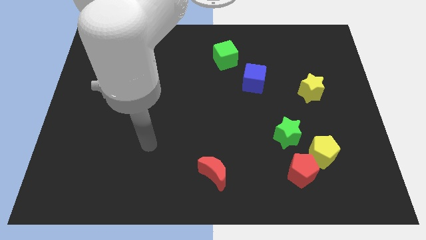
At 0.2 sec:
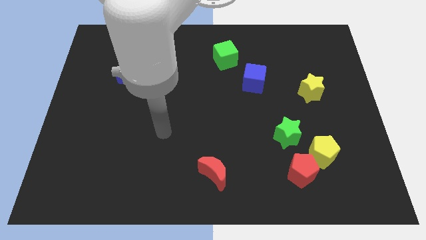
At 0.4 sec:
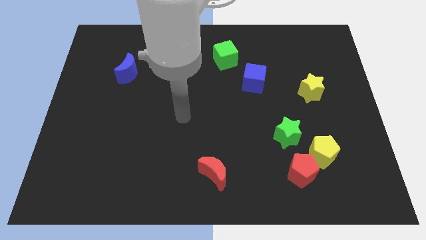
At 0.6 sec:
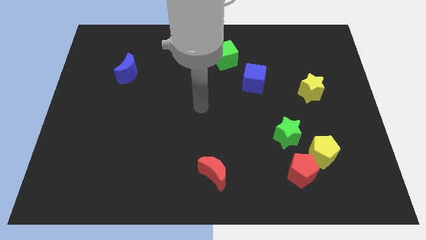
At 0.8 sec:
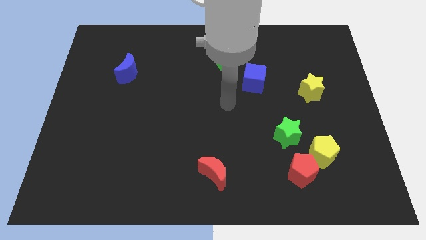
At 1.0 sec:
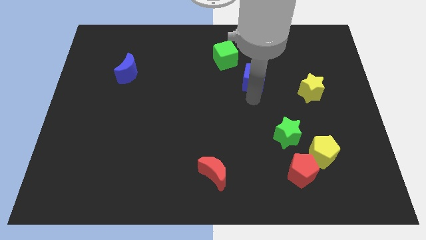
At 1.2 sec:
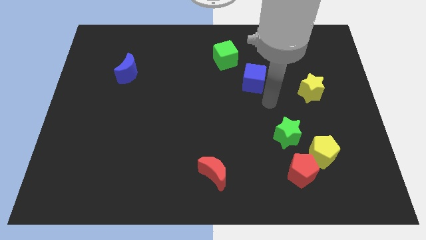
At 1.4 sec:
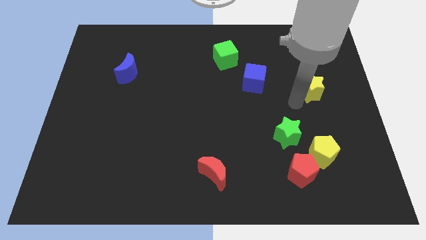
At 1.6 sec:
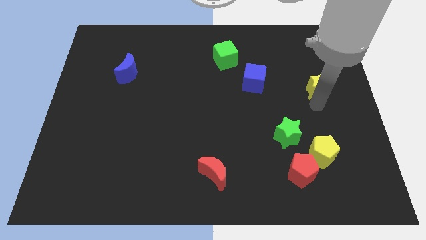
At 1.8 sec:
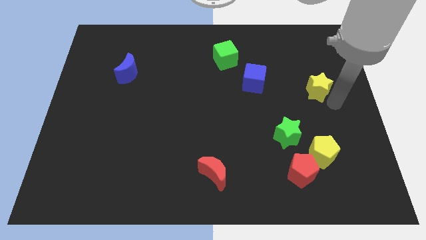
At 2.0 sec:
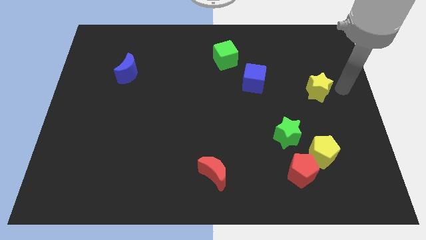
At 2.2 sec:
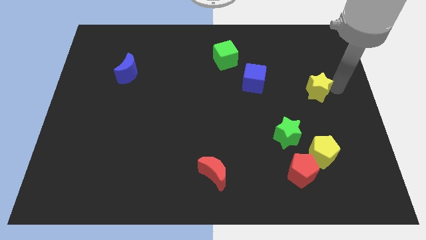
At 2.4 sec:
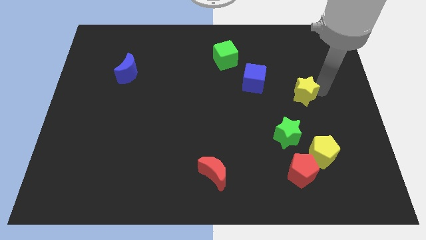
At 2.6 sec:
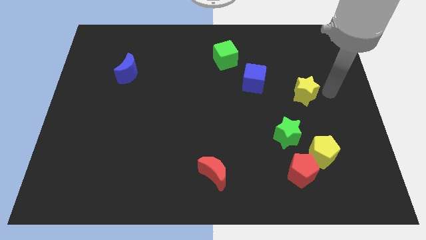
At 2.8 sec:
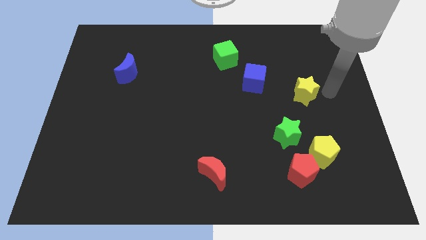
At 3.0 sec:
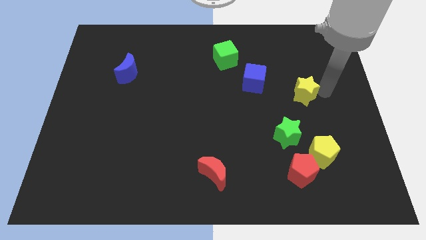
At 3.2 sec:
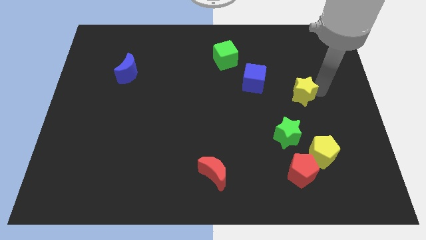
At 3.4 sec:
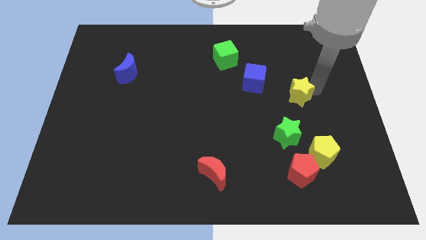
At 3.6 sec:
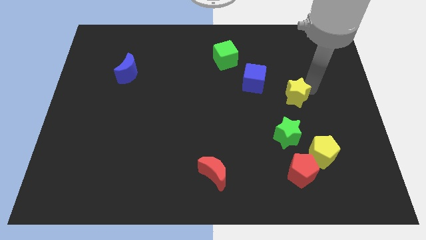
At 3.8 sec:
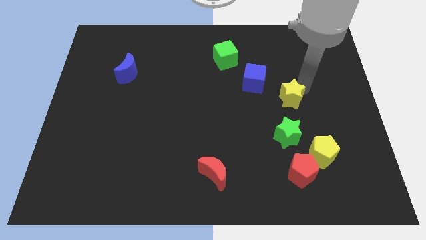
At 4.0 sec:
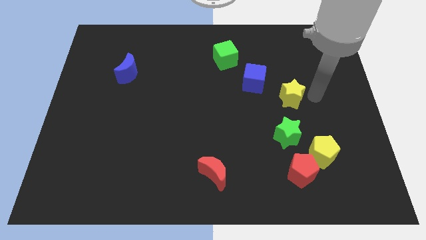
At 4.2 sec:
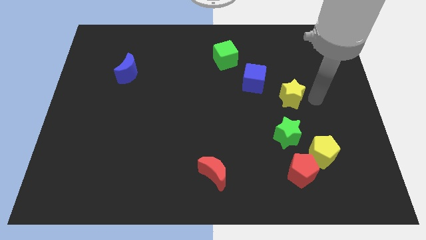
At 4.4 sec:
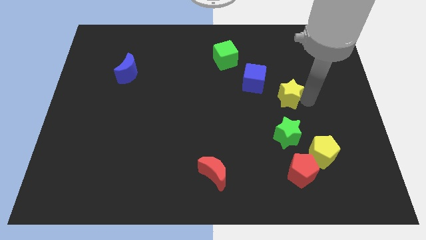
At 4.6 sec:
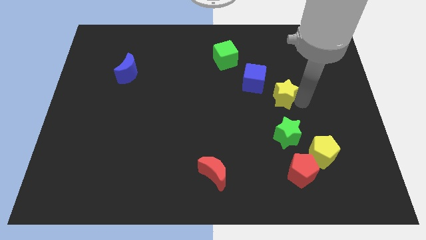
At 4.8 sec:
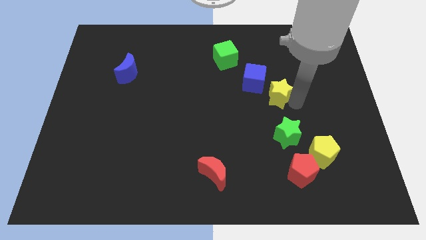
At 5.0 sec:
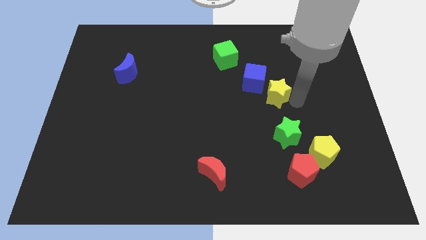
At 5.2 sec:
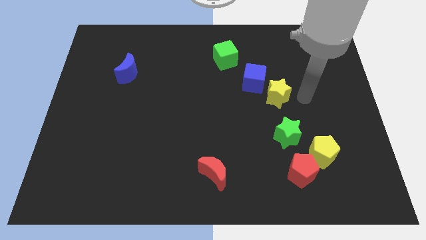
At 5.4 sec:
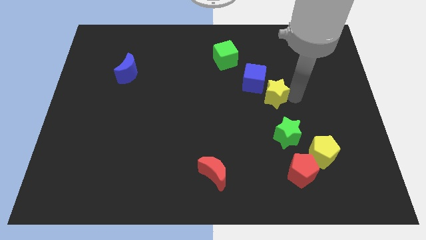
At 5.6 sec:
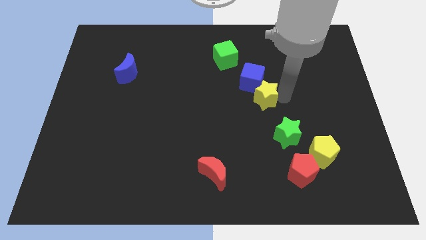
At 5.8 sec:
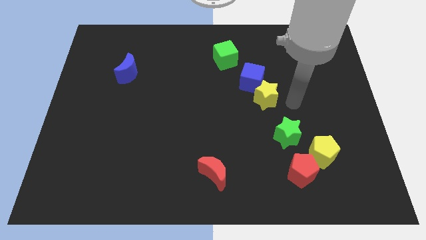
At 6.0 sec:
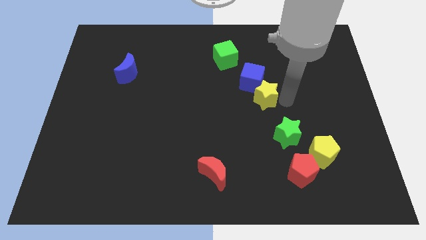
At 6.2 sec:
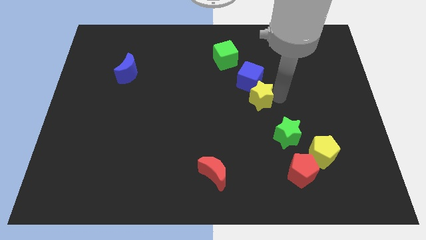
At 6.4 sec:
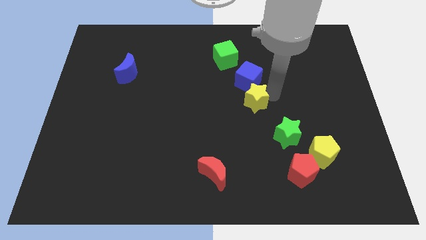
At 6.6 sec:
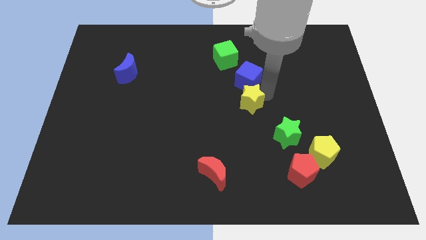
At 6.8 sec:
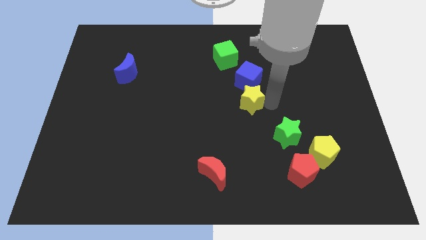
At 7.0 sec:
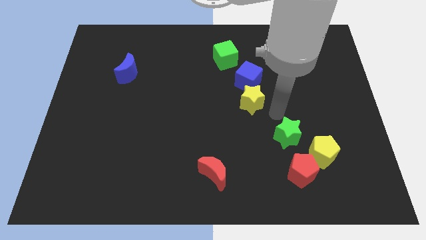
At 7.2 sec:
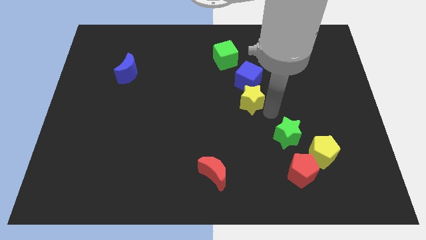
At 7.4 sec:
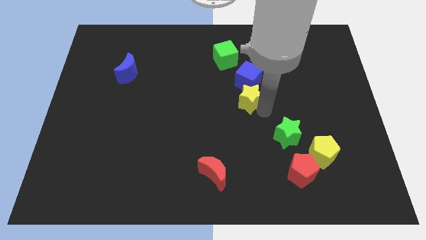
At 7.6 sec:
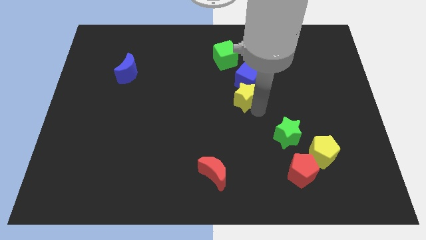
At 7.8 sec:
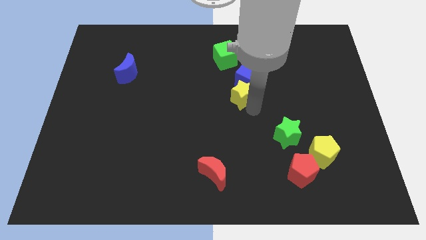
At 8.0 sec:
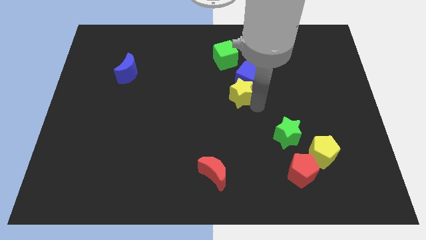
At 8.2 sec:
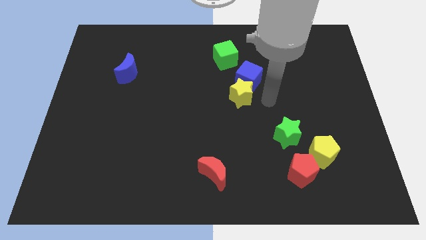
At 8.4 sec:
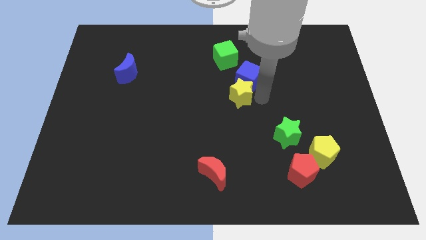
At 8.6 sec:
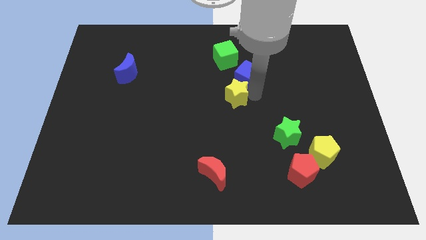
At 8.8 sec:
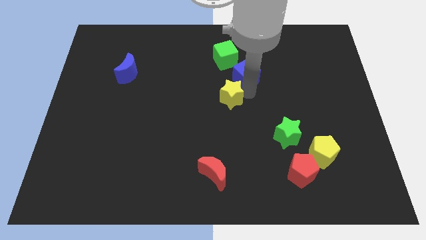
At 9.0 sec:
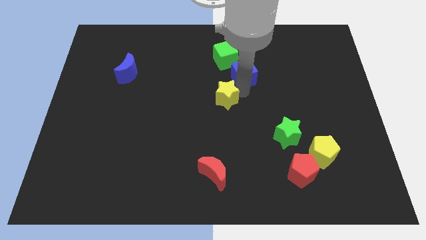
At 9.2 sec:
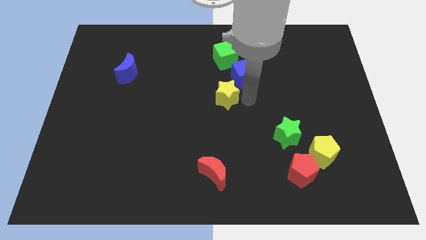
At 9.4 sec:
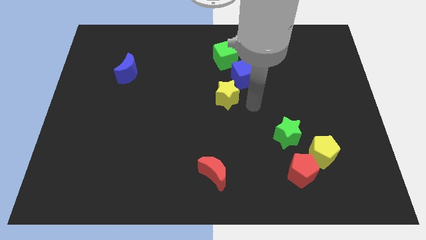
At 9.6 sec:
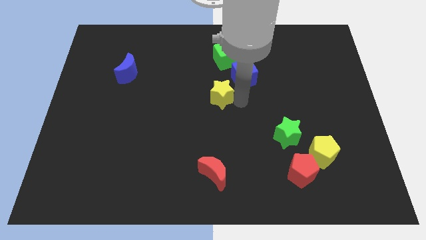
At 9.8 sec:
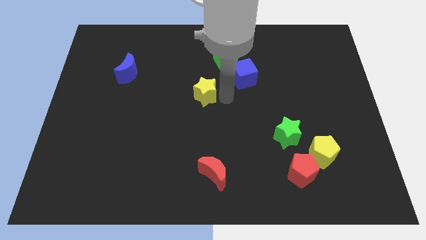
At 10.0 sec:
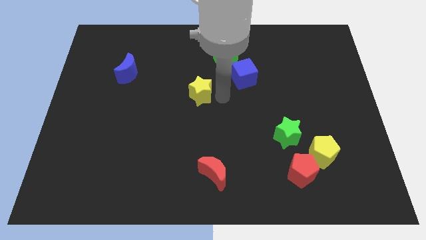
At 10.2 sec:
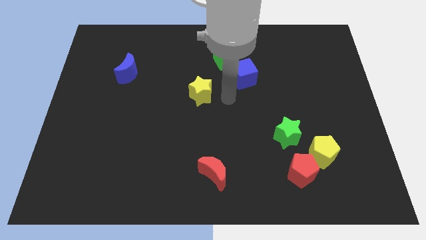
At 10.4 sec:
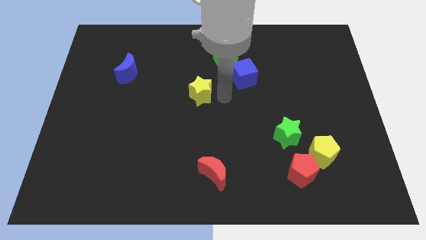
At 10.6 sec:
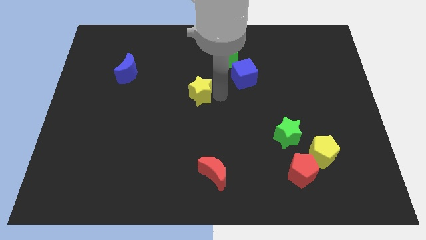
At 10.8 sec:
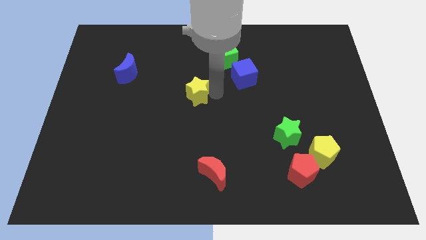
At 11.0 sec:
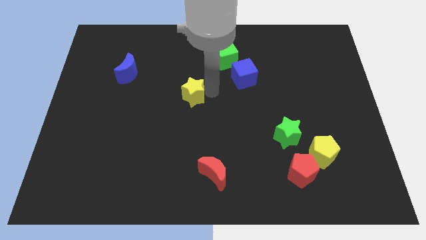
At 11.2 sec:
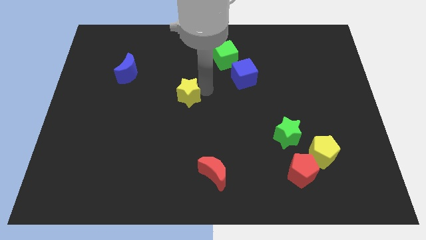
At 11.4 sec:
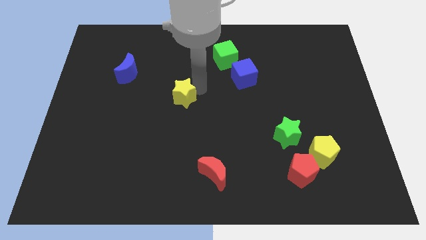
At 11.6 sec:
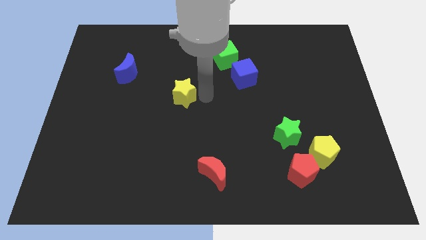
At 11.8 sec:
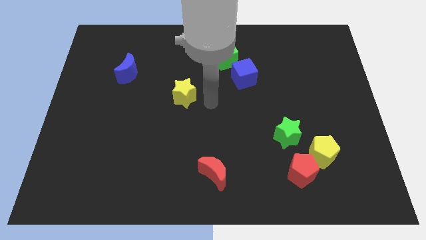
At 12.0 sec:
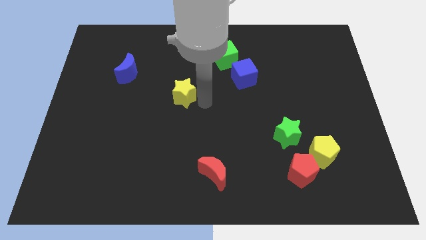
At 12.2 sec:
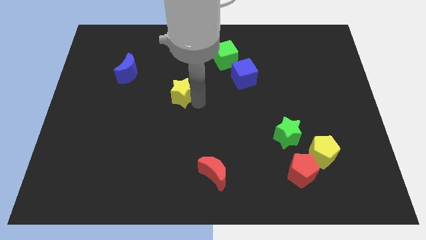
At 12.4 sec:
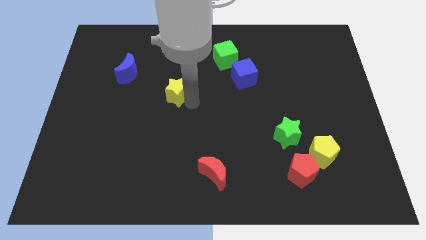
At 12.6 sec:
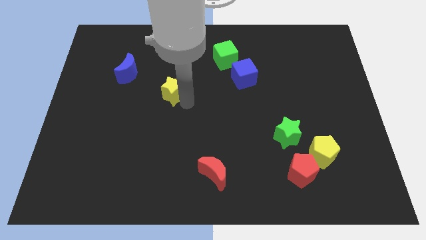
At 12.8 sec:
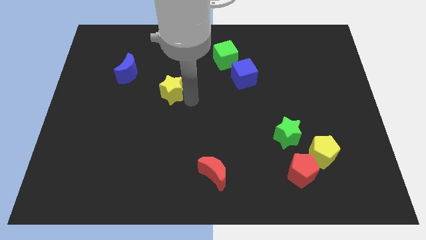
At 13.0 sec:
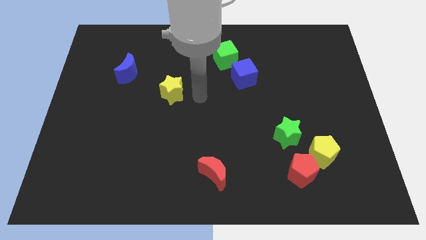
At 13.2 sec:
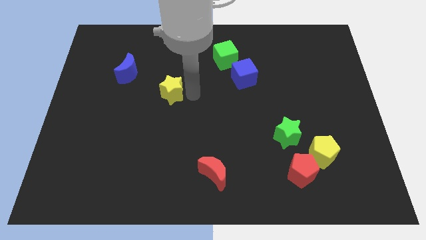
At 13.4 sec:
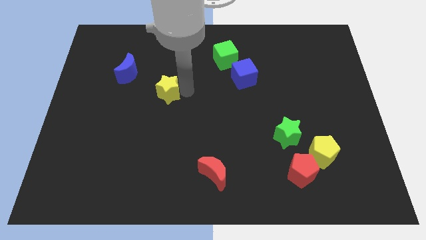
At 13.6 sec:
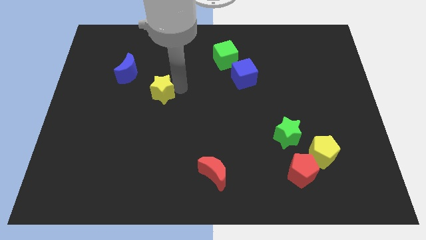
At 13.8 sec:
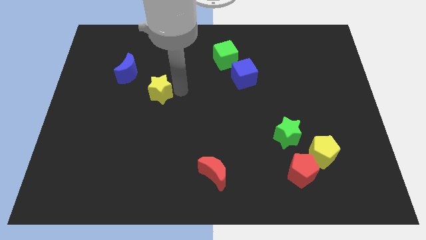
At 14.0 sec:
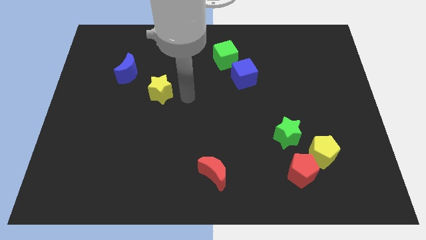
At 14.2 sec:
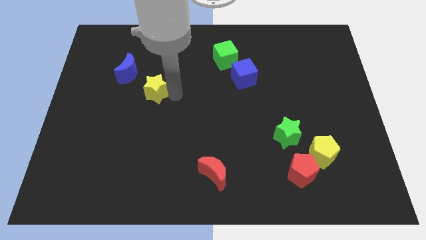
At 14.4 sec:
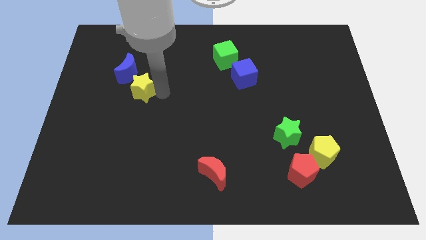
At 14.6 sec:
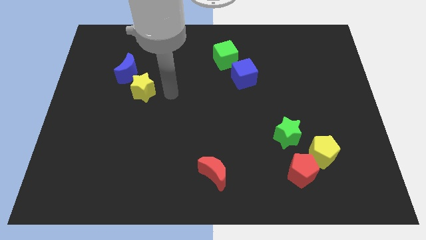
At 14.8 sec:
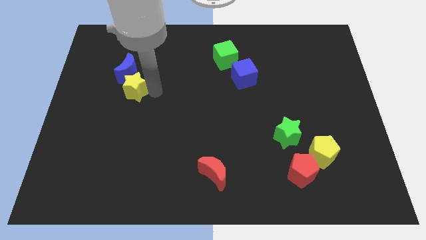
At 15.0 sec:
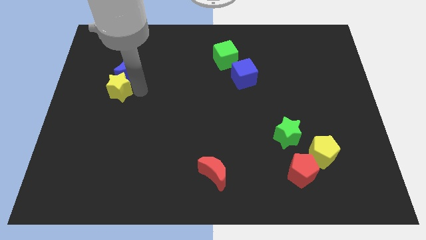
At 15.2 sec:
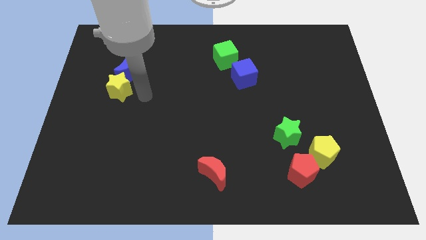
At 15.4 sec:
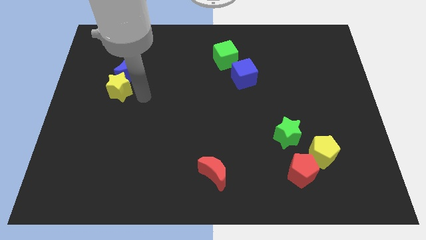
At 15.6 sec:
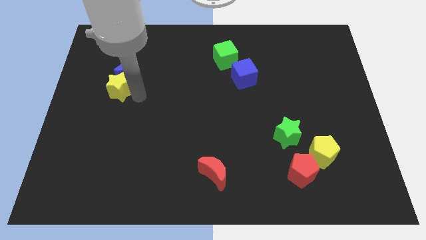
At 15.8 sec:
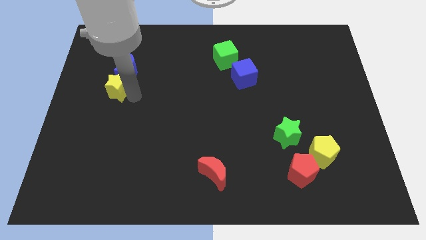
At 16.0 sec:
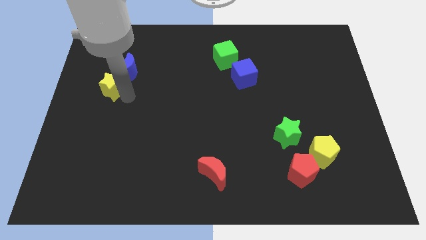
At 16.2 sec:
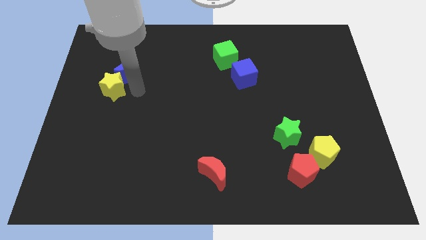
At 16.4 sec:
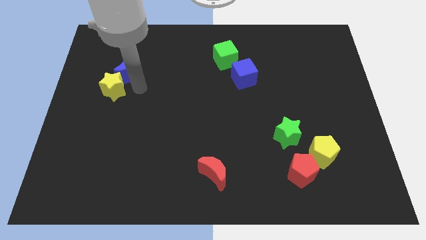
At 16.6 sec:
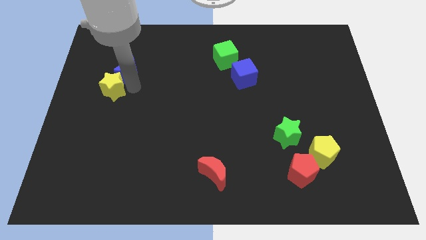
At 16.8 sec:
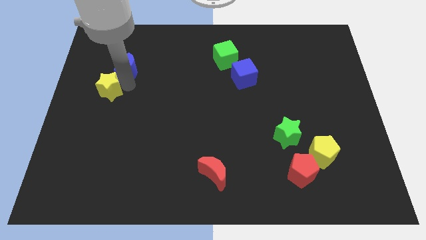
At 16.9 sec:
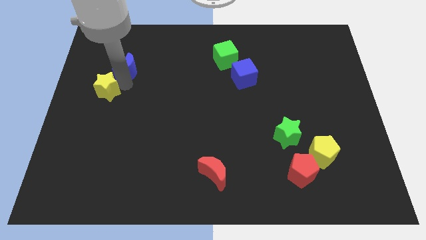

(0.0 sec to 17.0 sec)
slide the yellow star to the left side of the board
